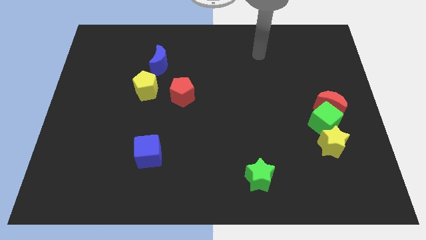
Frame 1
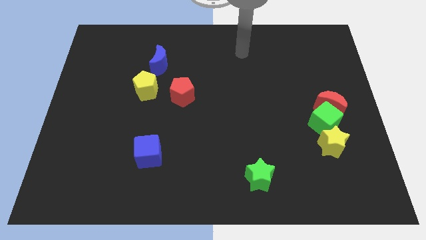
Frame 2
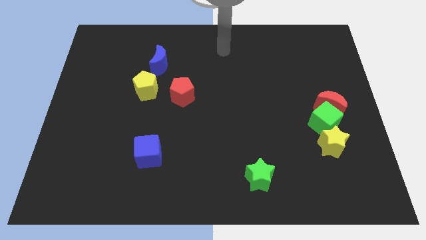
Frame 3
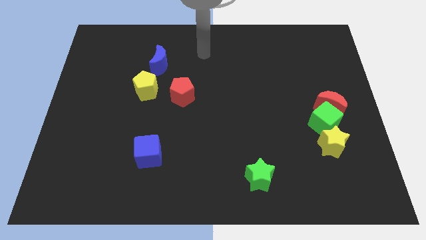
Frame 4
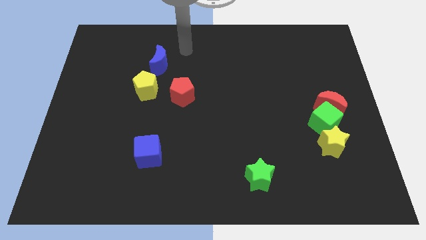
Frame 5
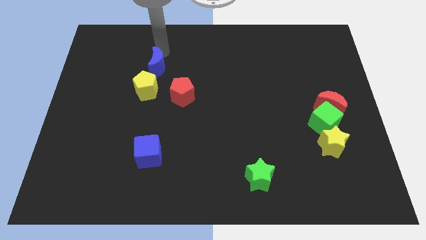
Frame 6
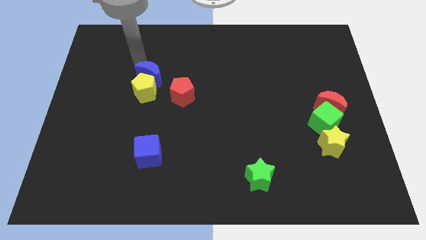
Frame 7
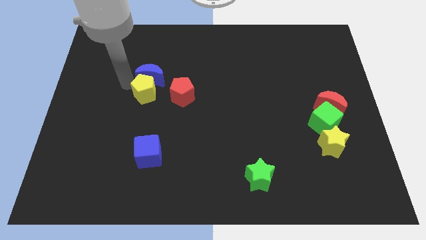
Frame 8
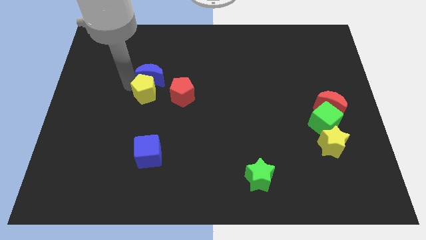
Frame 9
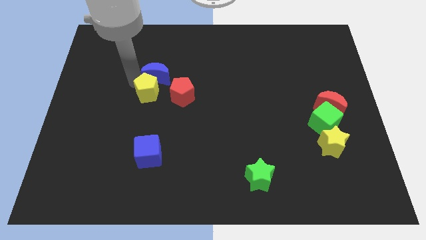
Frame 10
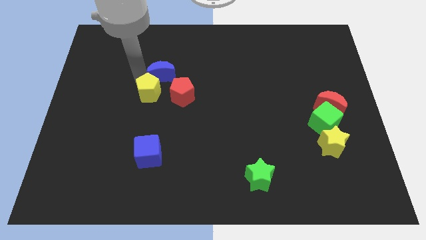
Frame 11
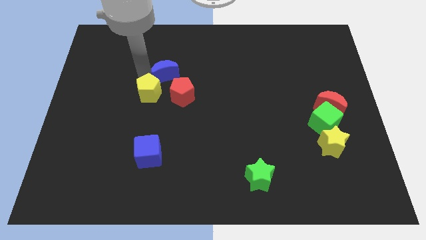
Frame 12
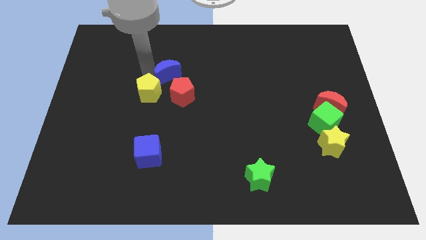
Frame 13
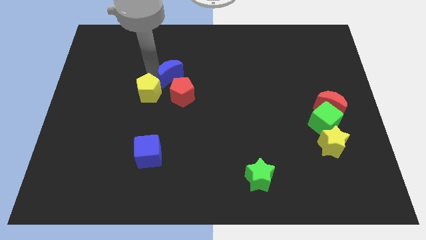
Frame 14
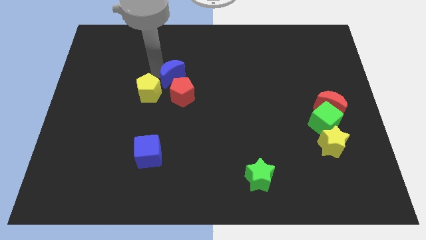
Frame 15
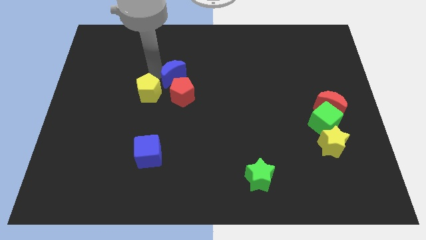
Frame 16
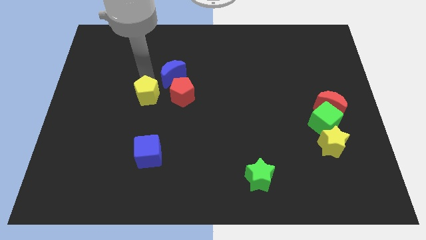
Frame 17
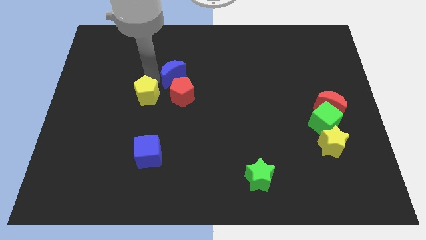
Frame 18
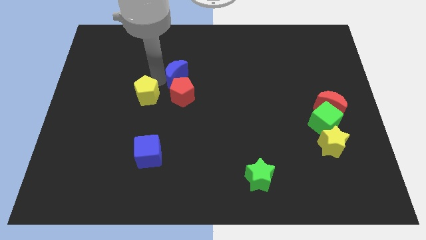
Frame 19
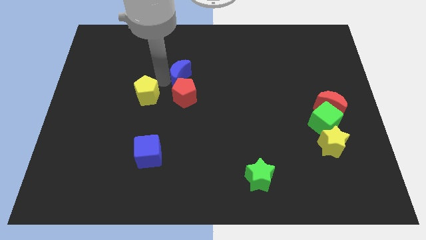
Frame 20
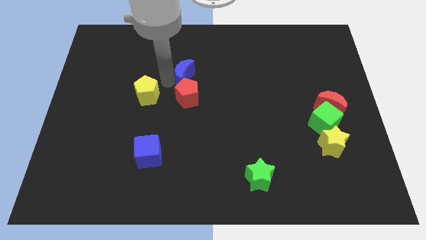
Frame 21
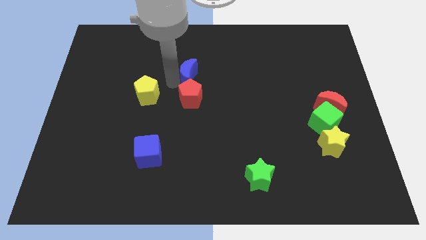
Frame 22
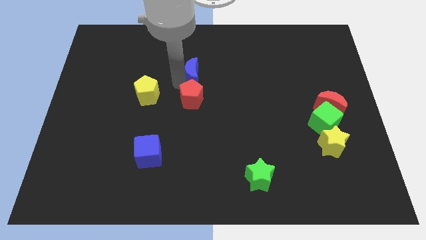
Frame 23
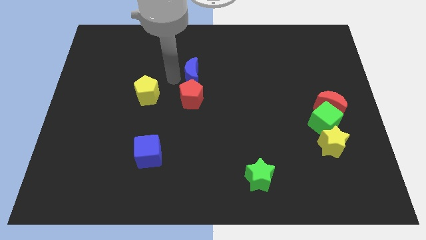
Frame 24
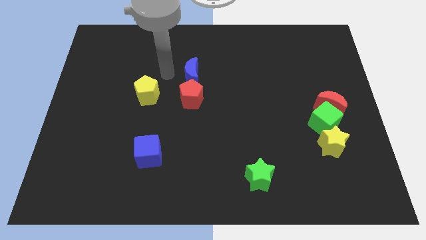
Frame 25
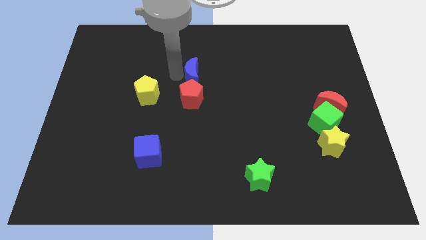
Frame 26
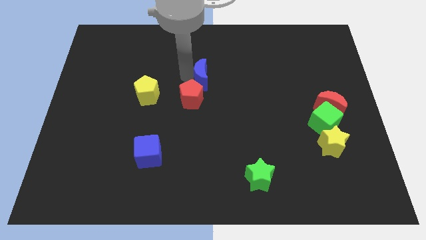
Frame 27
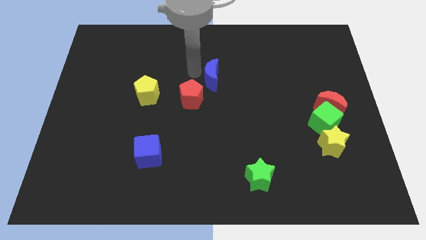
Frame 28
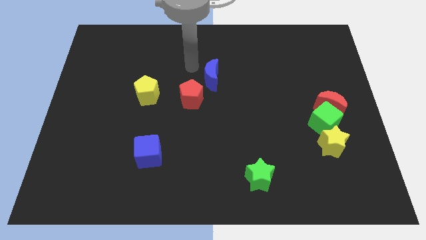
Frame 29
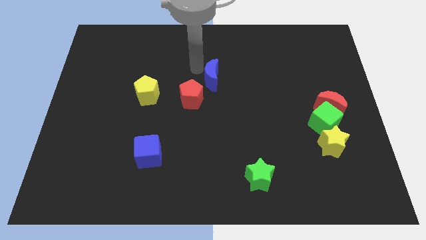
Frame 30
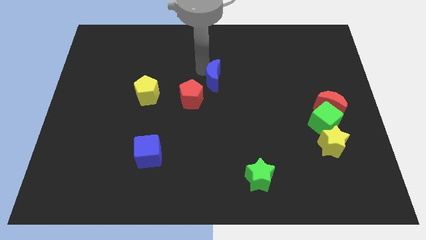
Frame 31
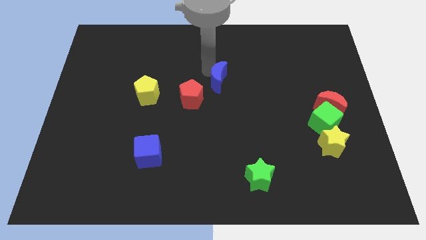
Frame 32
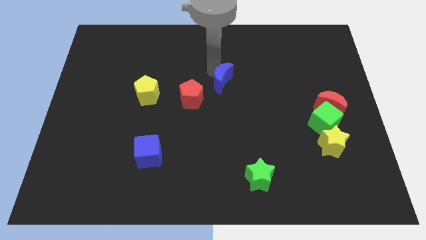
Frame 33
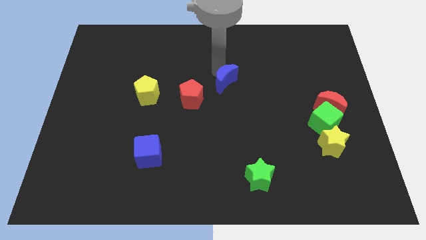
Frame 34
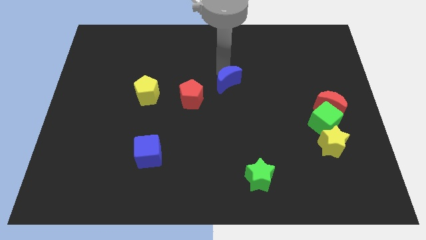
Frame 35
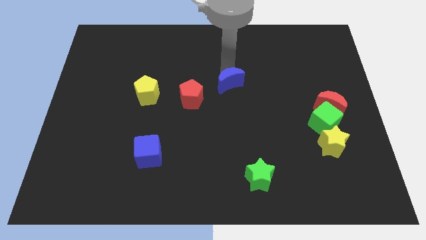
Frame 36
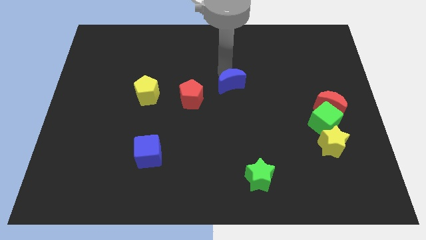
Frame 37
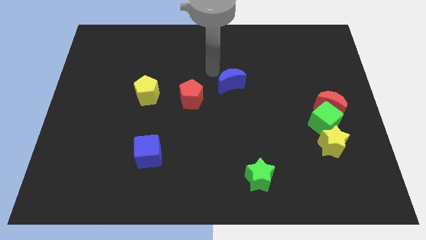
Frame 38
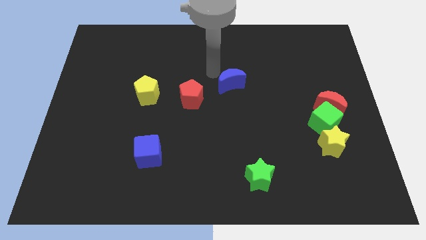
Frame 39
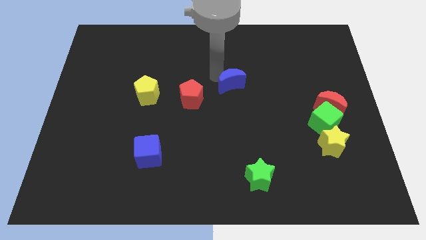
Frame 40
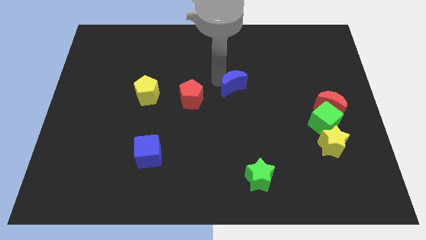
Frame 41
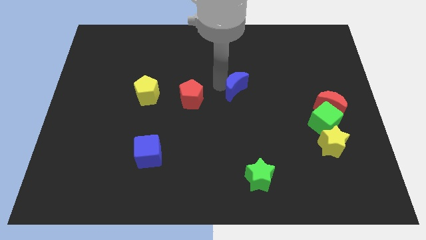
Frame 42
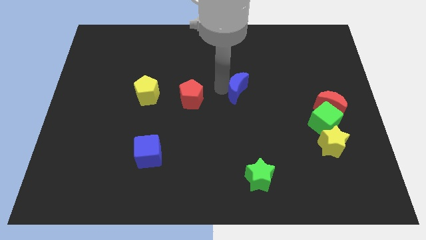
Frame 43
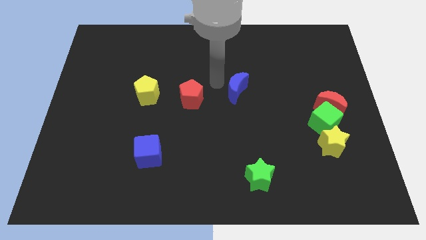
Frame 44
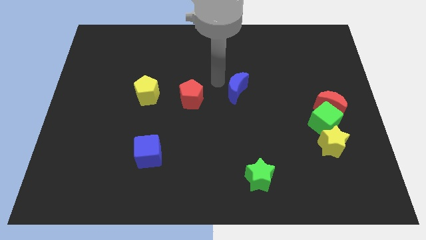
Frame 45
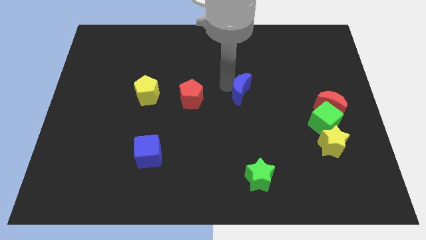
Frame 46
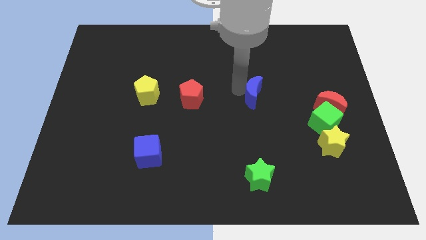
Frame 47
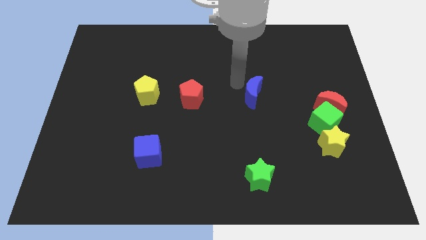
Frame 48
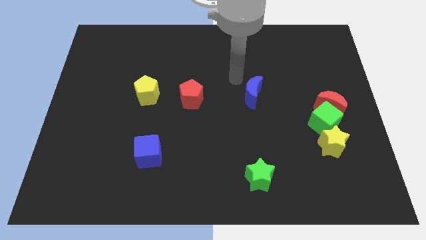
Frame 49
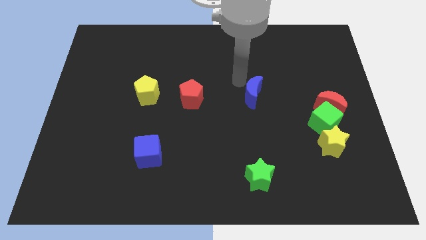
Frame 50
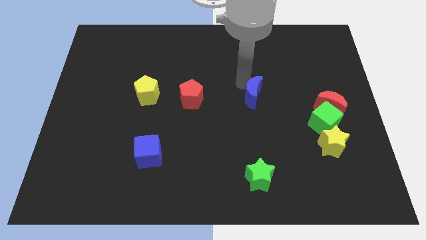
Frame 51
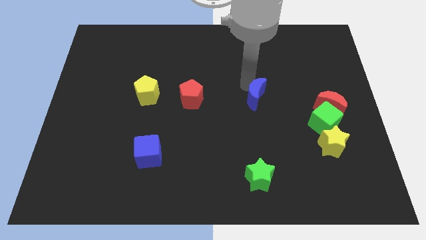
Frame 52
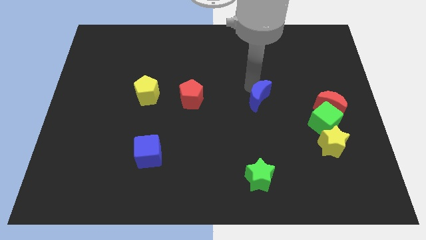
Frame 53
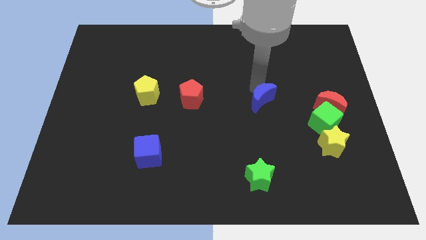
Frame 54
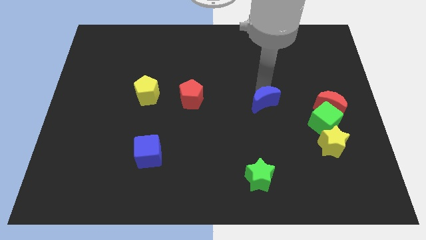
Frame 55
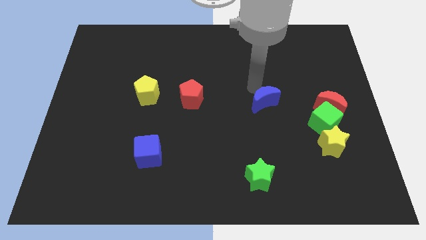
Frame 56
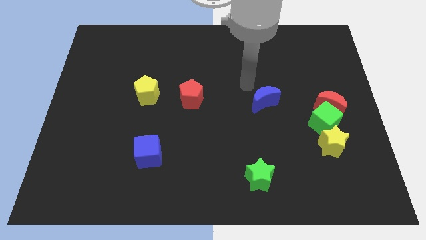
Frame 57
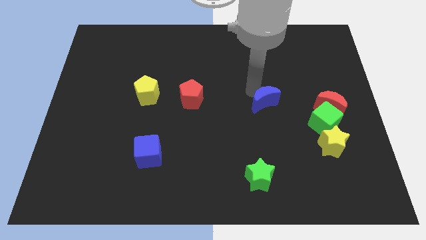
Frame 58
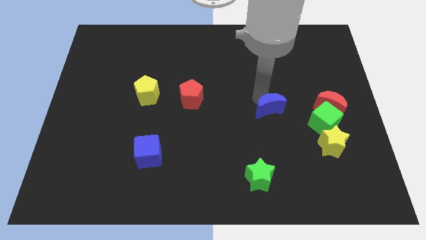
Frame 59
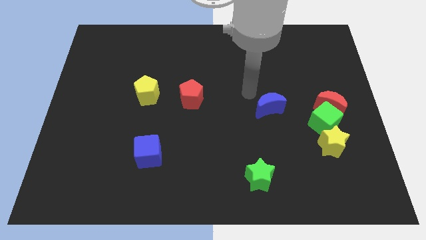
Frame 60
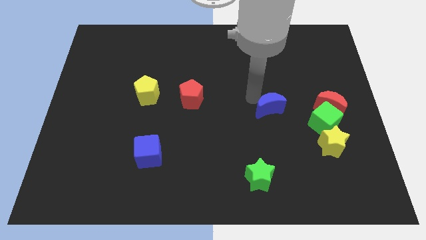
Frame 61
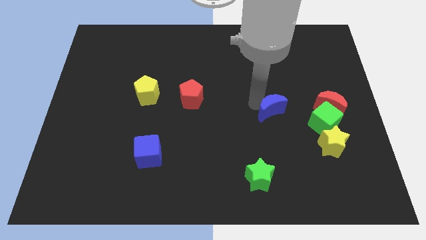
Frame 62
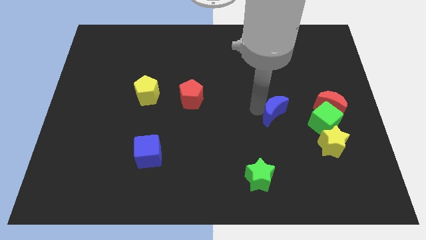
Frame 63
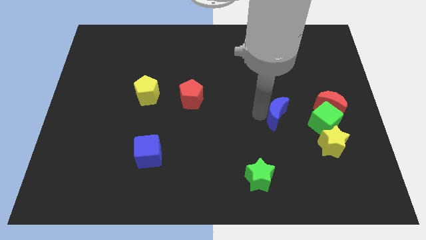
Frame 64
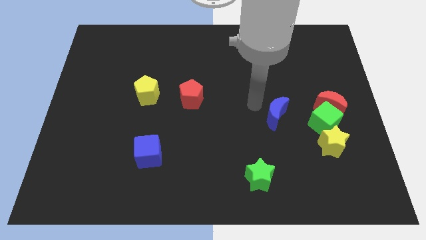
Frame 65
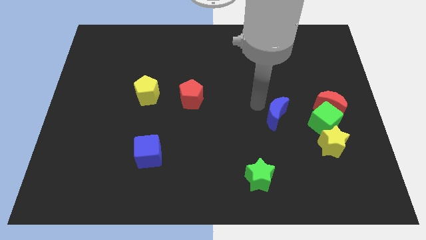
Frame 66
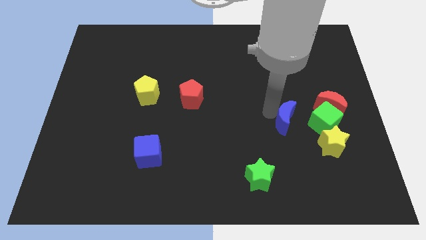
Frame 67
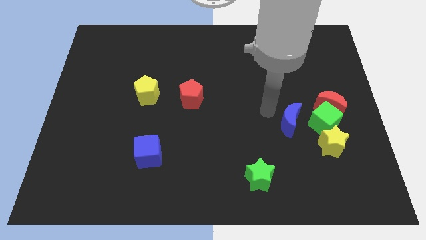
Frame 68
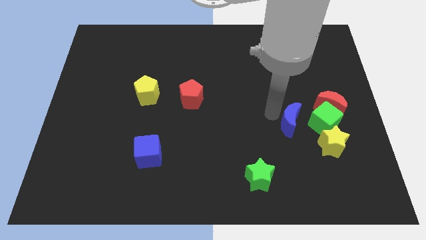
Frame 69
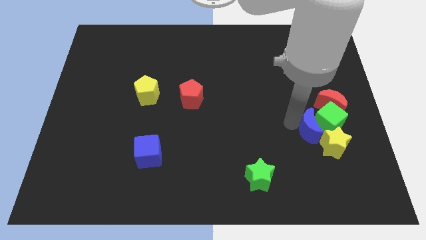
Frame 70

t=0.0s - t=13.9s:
move the blue moon towards the yellow star

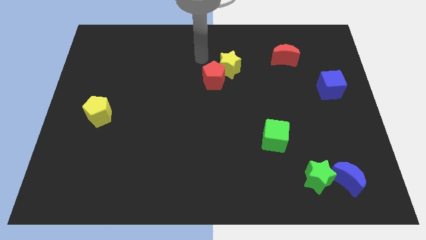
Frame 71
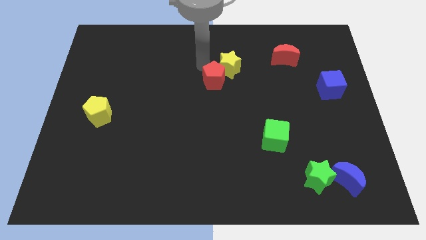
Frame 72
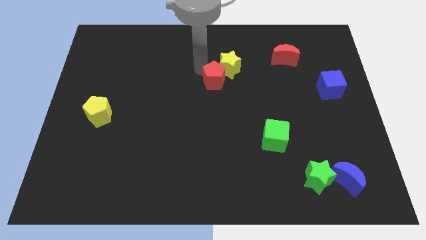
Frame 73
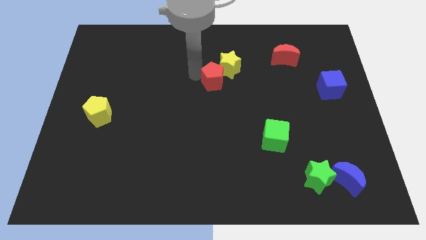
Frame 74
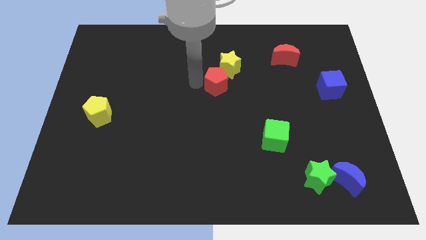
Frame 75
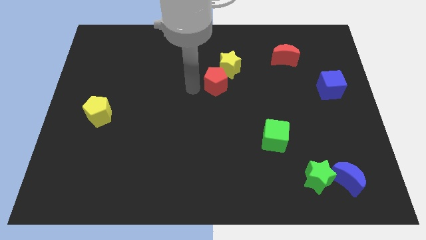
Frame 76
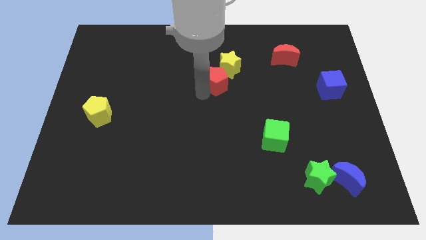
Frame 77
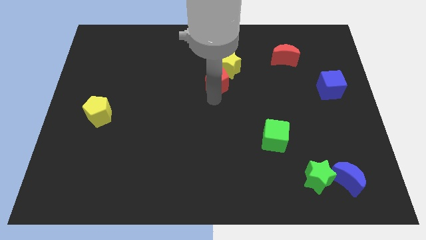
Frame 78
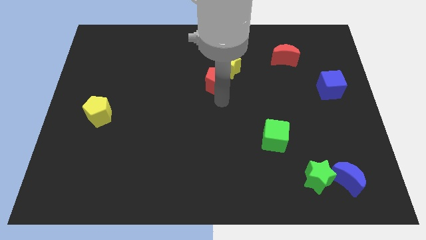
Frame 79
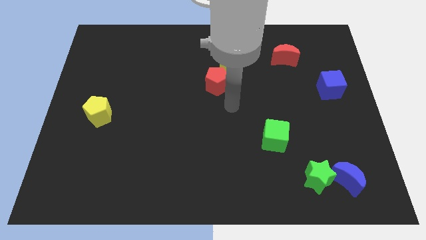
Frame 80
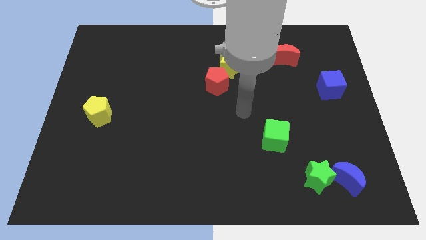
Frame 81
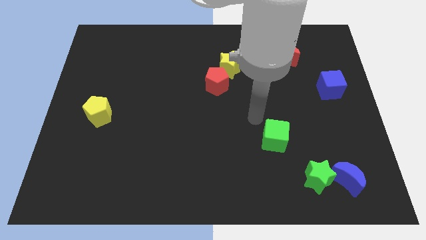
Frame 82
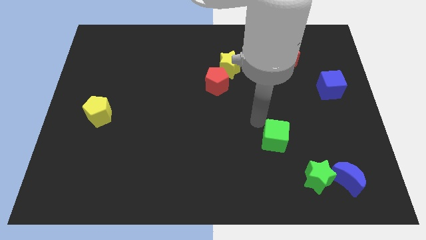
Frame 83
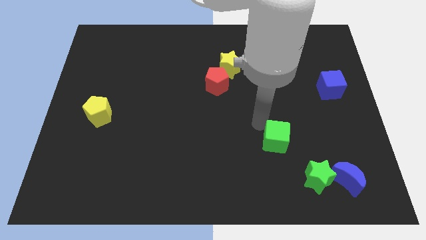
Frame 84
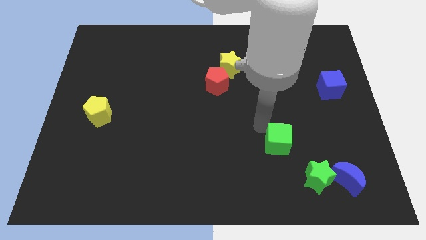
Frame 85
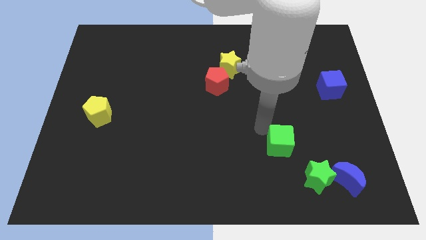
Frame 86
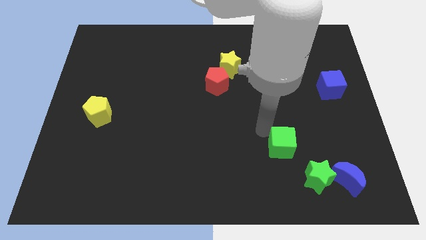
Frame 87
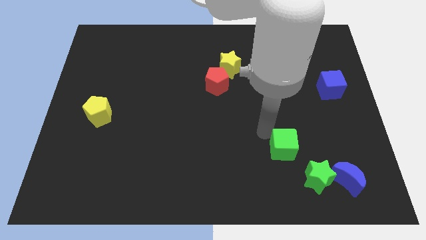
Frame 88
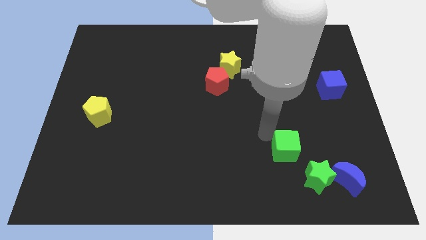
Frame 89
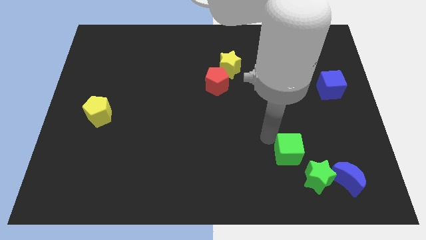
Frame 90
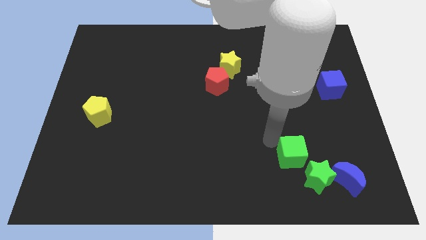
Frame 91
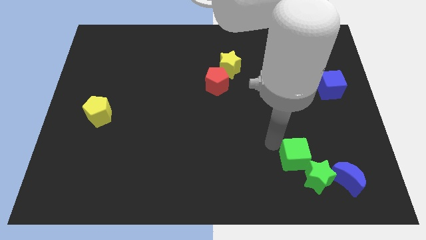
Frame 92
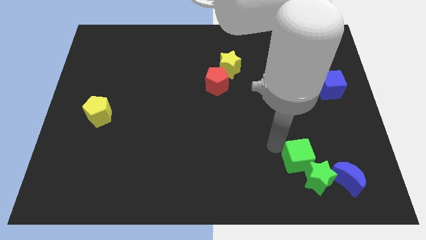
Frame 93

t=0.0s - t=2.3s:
push the green cube close to the green star
